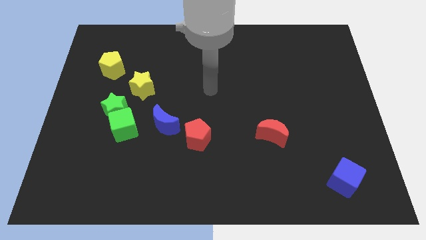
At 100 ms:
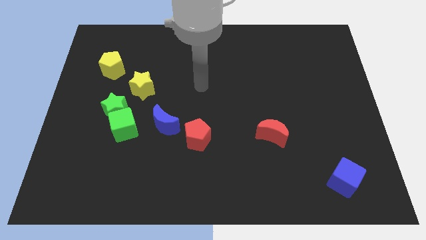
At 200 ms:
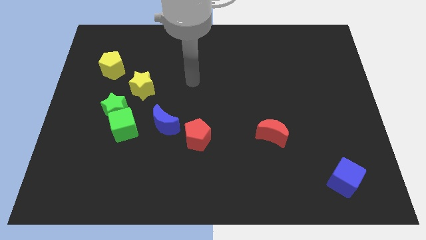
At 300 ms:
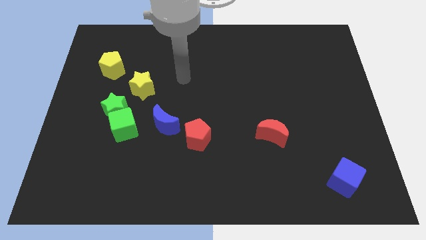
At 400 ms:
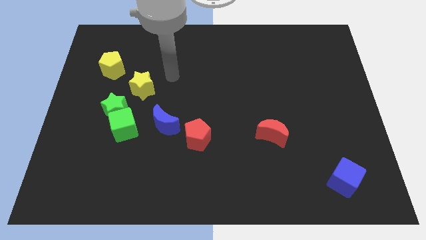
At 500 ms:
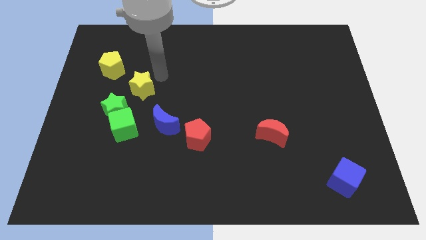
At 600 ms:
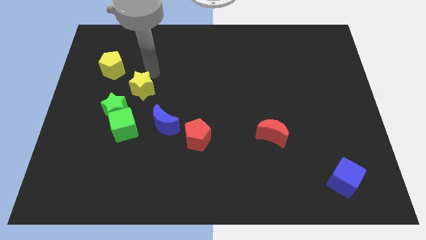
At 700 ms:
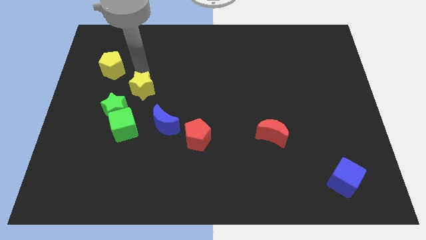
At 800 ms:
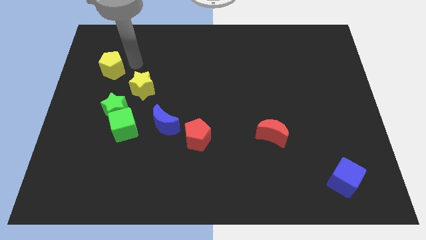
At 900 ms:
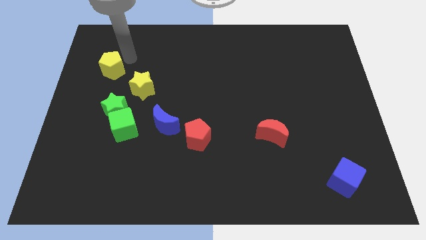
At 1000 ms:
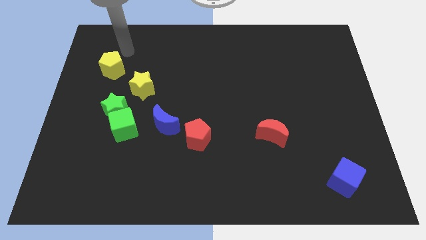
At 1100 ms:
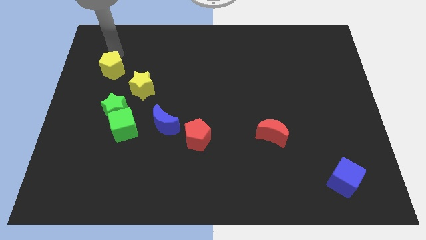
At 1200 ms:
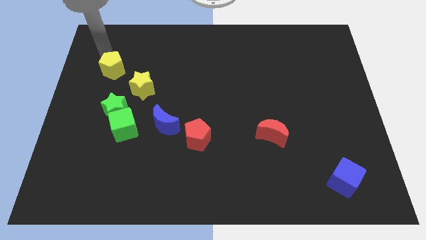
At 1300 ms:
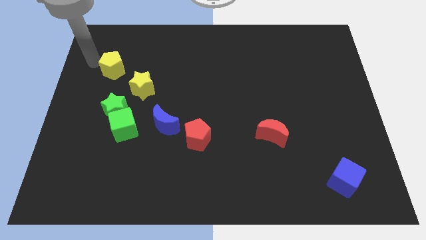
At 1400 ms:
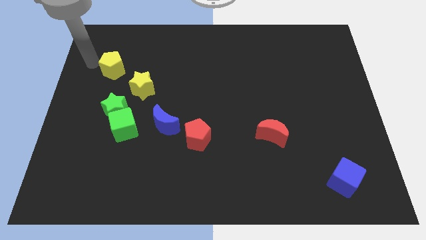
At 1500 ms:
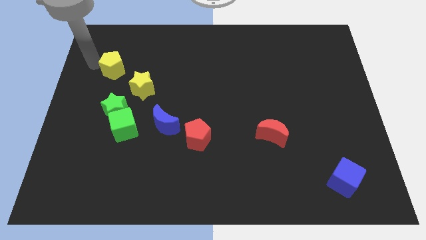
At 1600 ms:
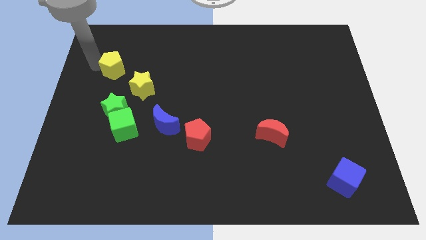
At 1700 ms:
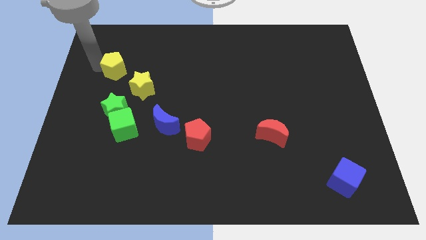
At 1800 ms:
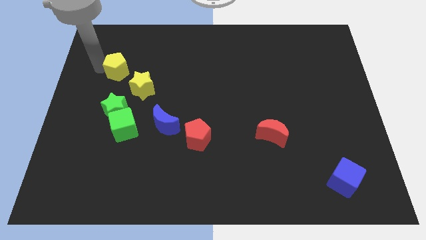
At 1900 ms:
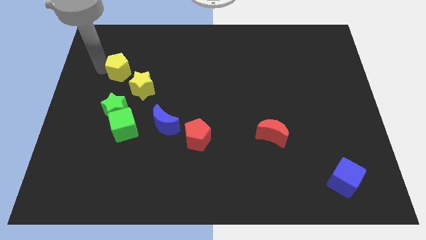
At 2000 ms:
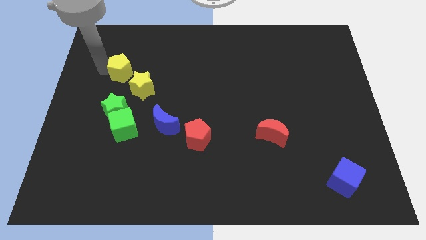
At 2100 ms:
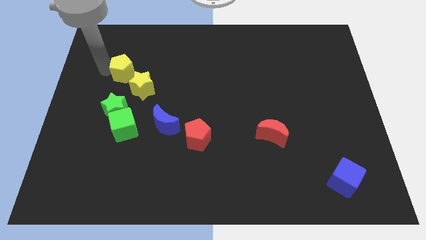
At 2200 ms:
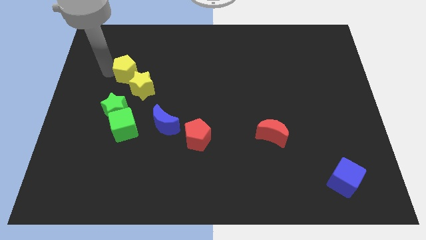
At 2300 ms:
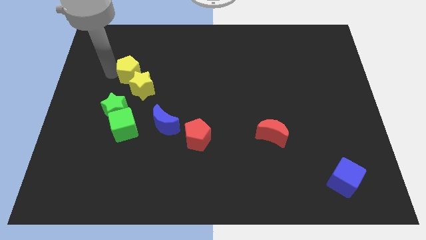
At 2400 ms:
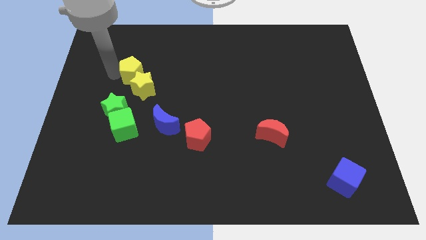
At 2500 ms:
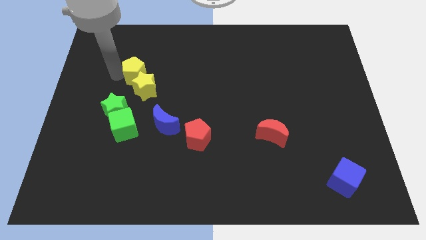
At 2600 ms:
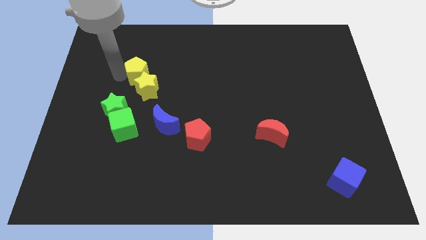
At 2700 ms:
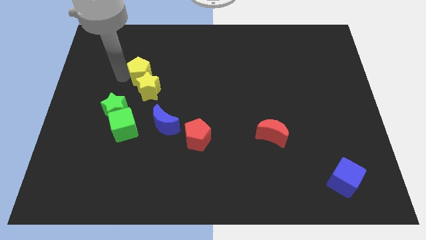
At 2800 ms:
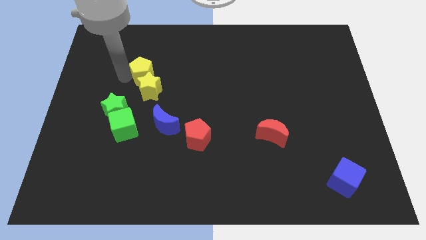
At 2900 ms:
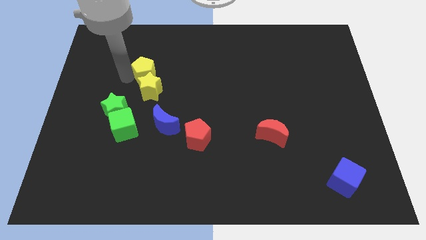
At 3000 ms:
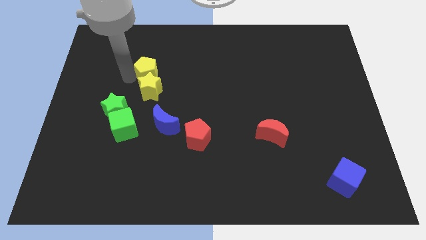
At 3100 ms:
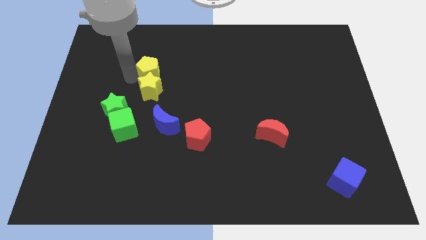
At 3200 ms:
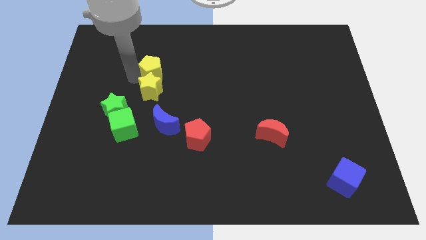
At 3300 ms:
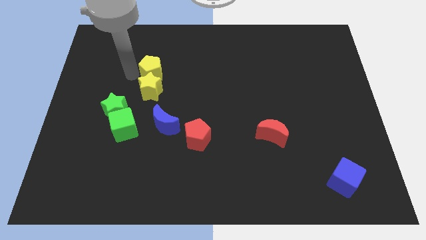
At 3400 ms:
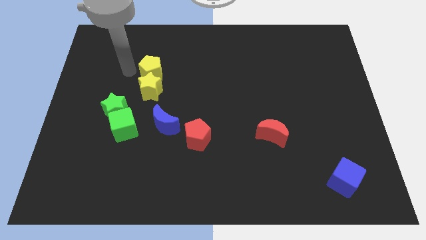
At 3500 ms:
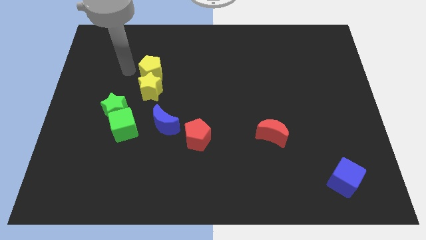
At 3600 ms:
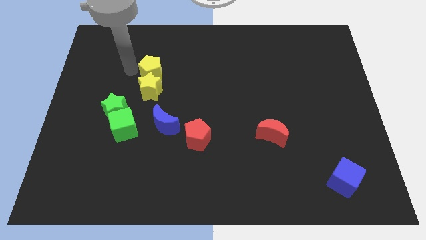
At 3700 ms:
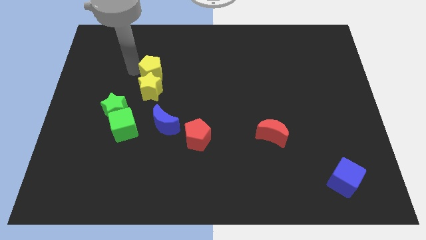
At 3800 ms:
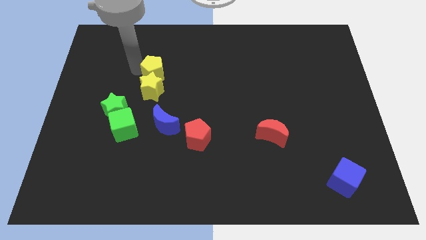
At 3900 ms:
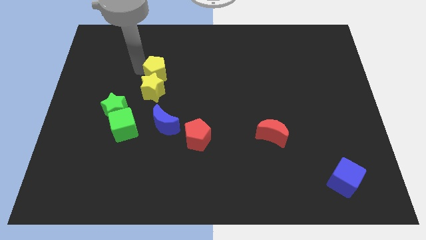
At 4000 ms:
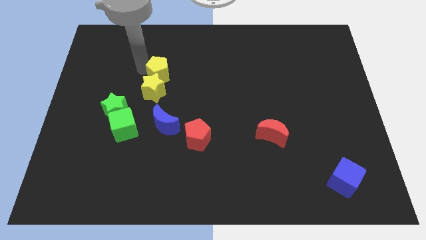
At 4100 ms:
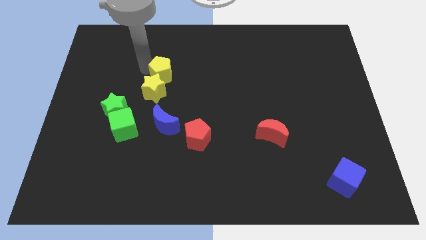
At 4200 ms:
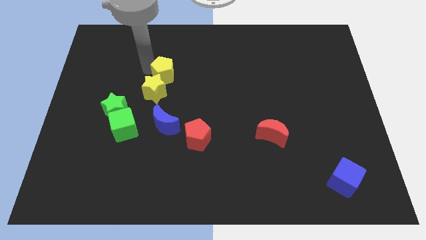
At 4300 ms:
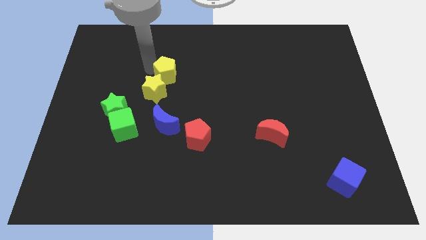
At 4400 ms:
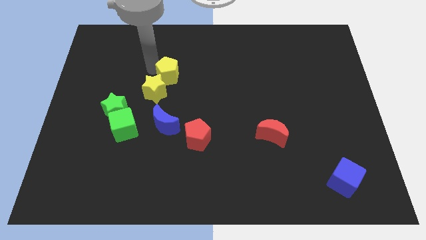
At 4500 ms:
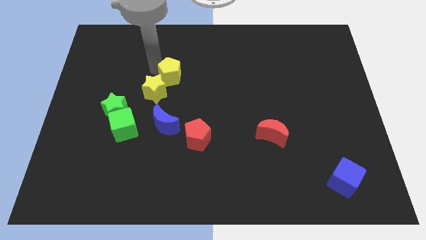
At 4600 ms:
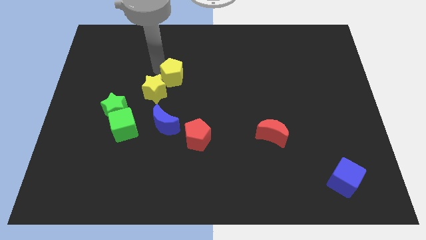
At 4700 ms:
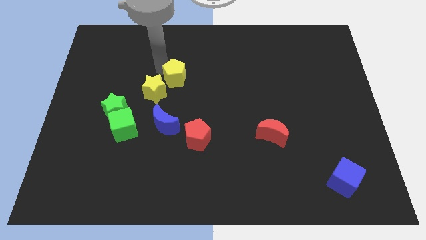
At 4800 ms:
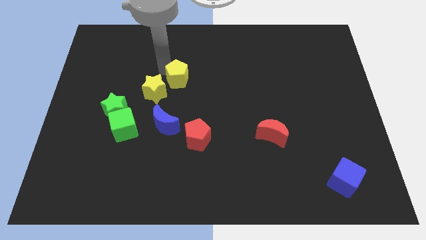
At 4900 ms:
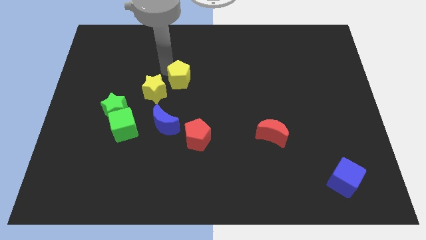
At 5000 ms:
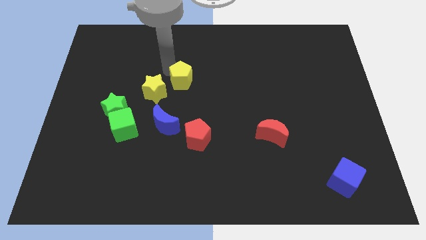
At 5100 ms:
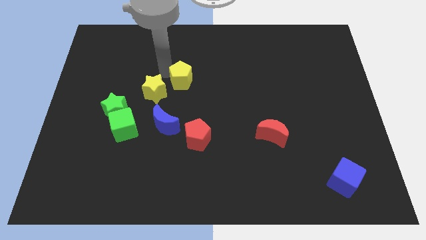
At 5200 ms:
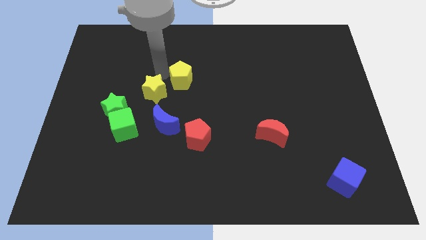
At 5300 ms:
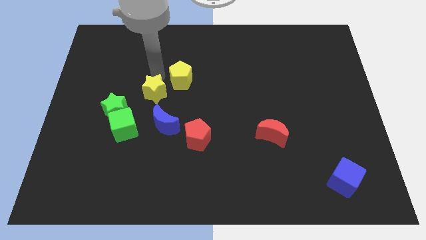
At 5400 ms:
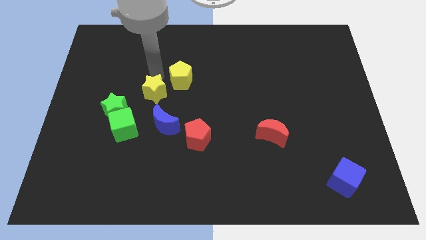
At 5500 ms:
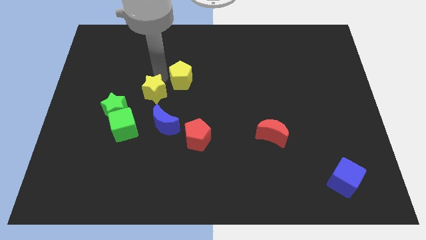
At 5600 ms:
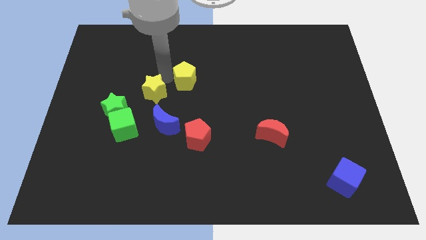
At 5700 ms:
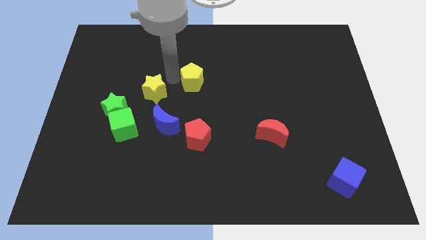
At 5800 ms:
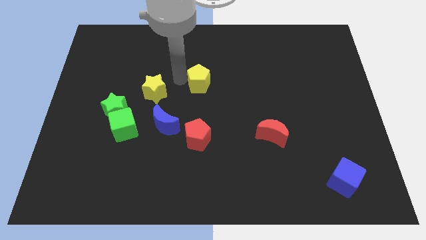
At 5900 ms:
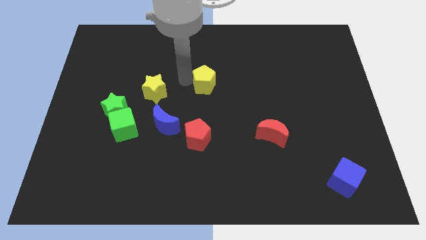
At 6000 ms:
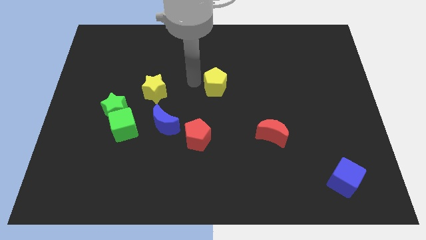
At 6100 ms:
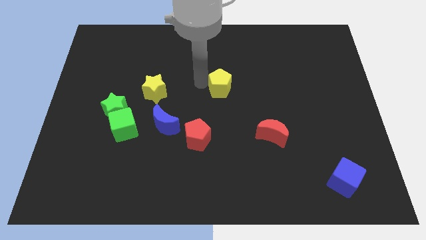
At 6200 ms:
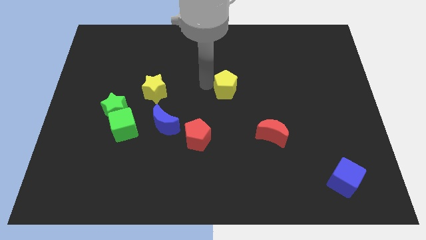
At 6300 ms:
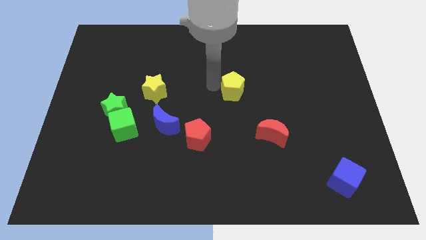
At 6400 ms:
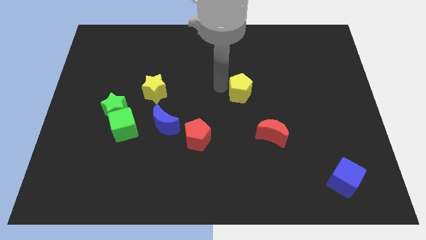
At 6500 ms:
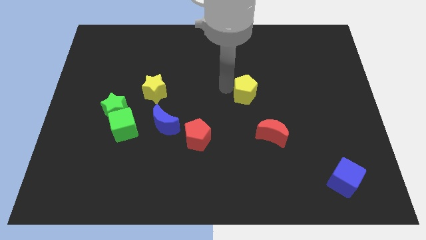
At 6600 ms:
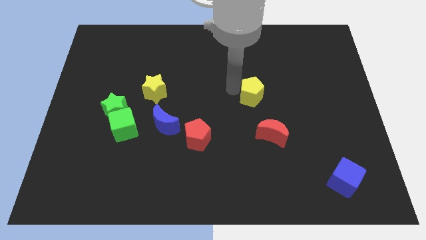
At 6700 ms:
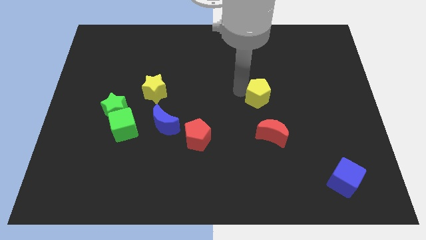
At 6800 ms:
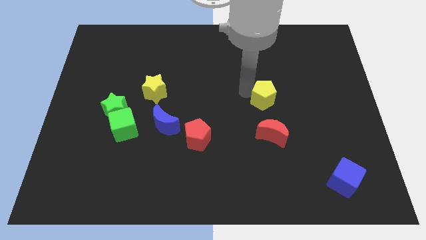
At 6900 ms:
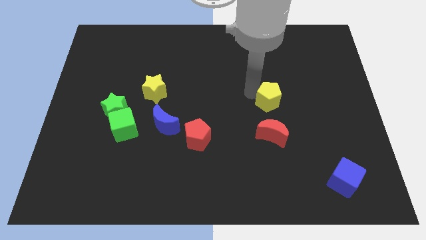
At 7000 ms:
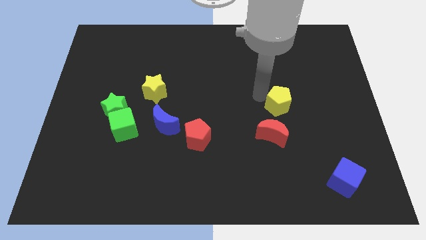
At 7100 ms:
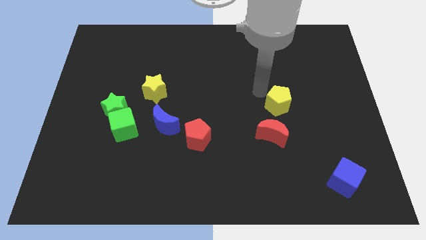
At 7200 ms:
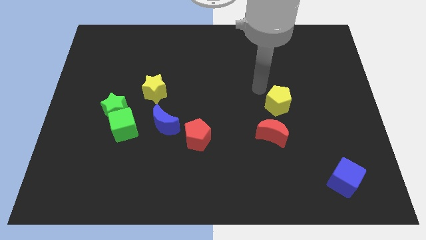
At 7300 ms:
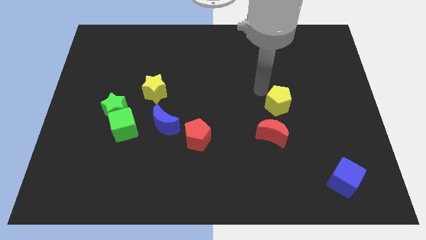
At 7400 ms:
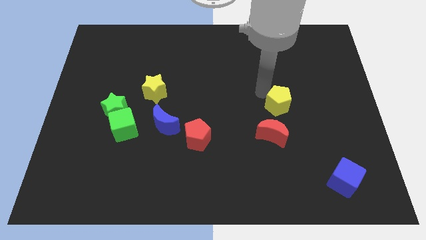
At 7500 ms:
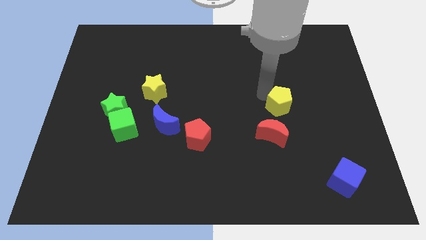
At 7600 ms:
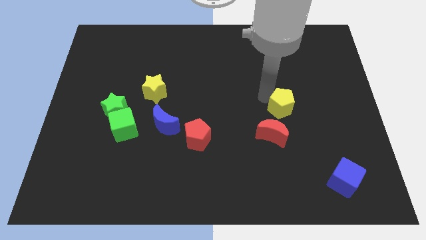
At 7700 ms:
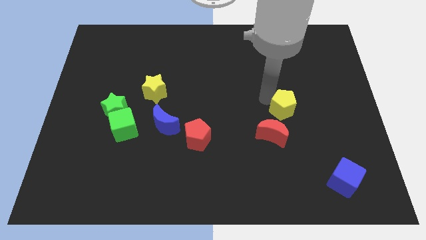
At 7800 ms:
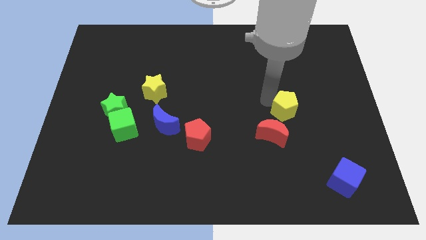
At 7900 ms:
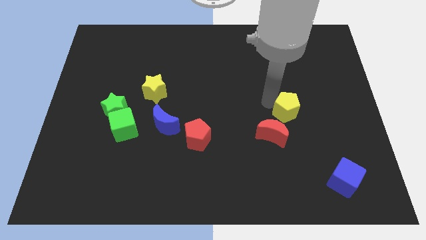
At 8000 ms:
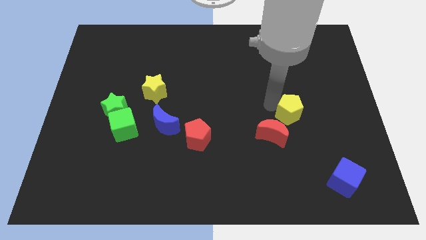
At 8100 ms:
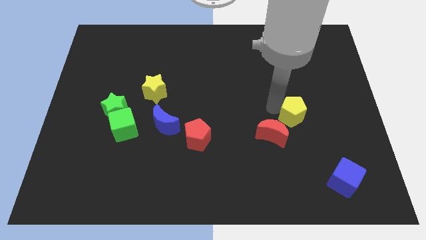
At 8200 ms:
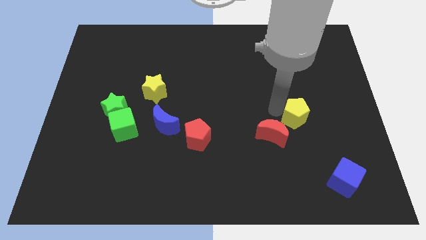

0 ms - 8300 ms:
move the yellow pentagon to the right of the red moon
